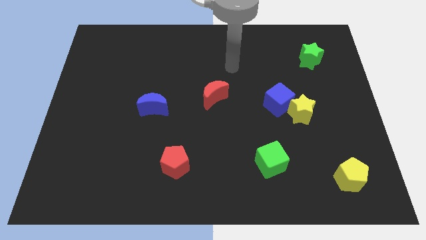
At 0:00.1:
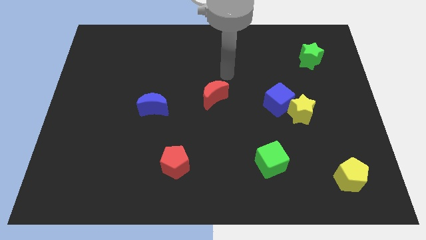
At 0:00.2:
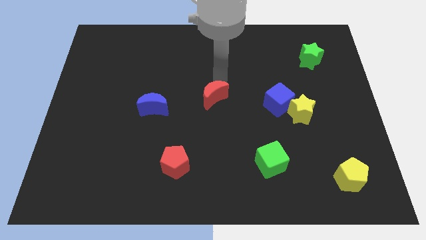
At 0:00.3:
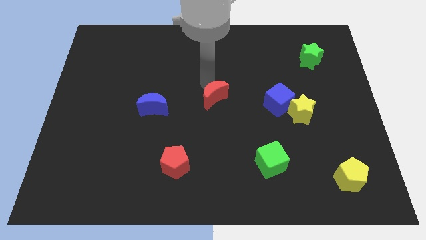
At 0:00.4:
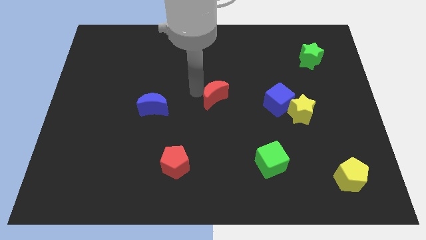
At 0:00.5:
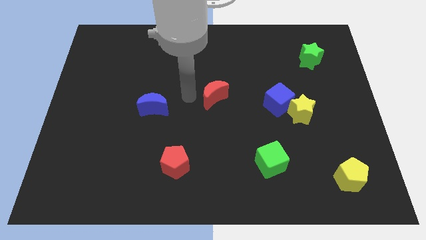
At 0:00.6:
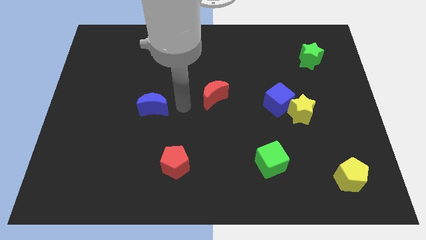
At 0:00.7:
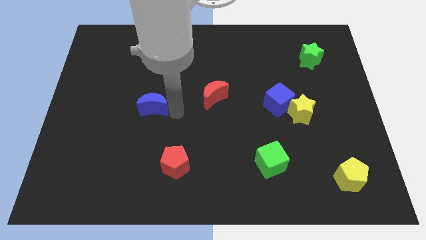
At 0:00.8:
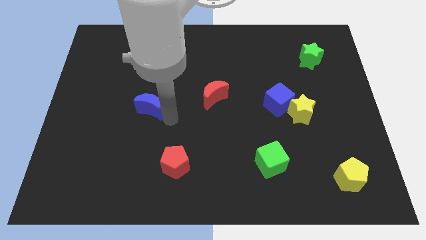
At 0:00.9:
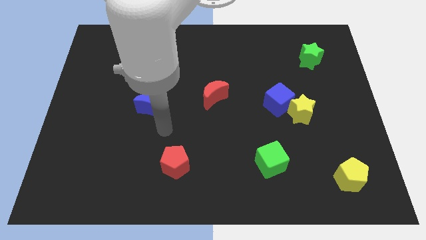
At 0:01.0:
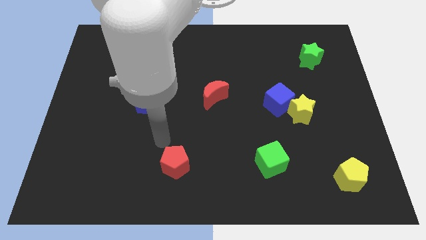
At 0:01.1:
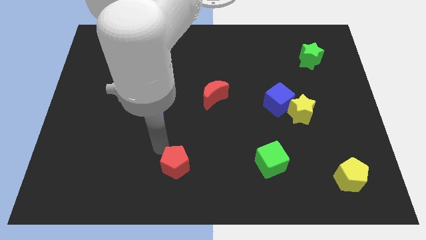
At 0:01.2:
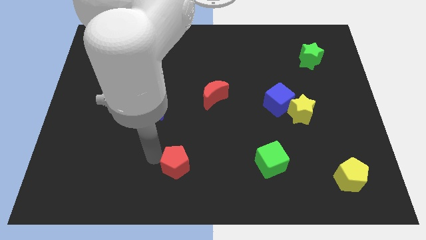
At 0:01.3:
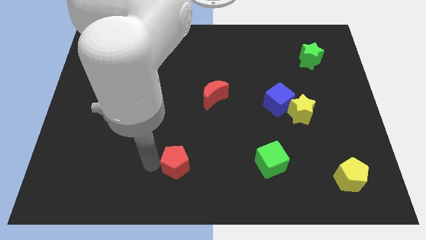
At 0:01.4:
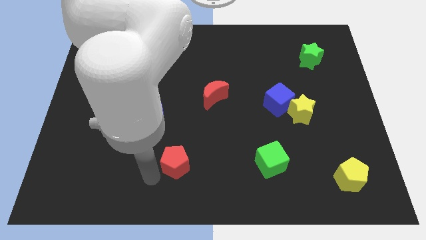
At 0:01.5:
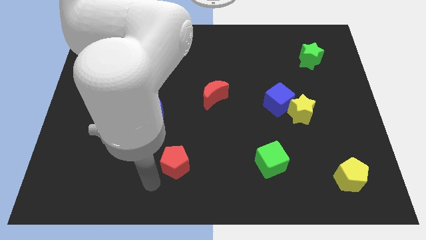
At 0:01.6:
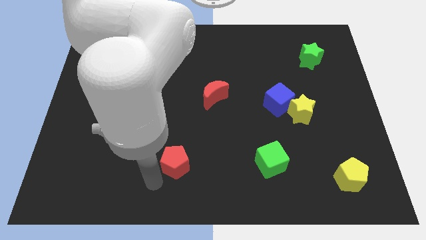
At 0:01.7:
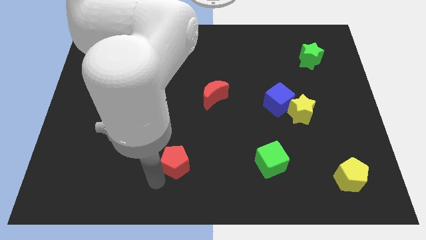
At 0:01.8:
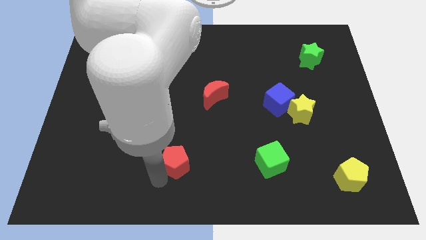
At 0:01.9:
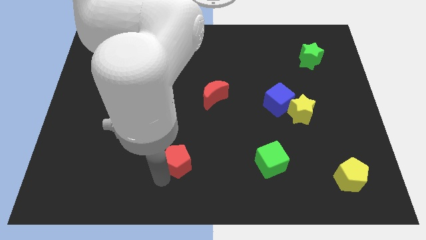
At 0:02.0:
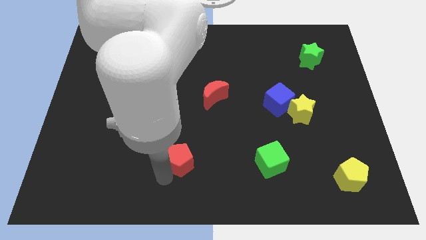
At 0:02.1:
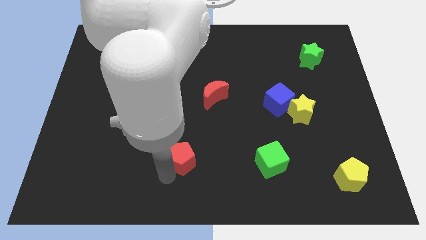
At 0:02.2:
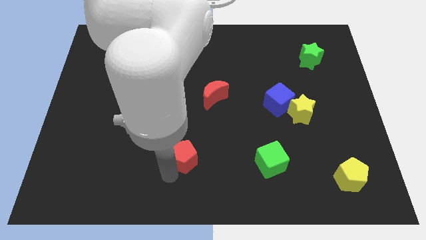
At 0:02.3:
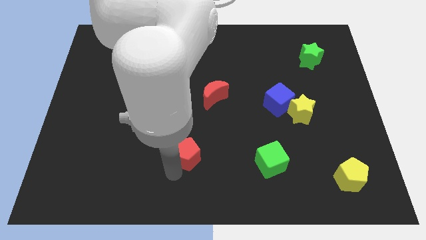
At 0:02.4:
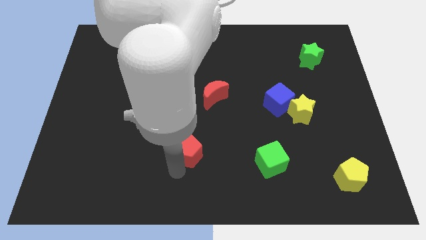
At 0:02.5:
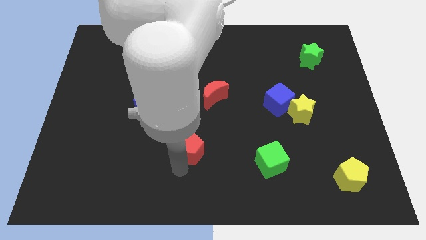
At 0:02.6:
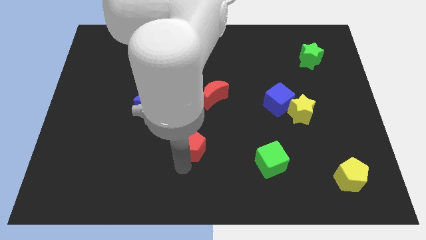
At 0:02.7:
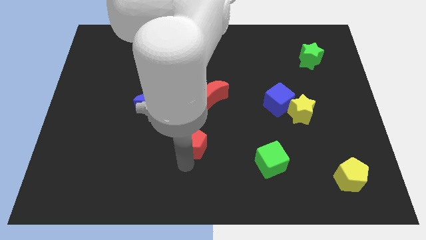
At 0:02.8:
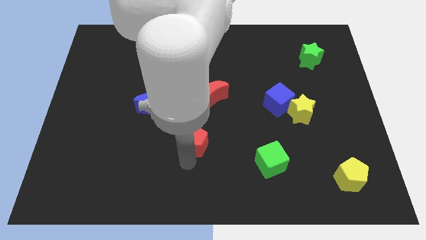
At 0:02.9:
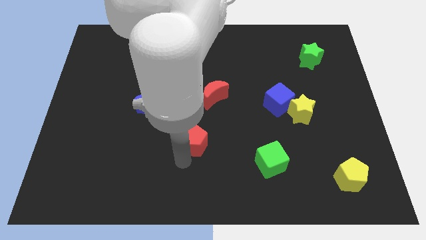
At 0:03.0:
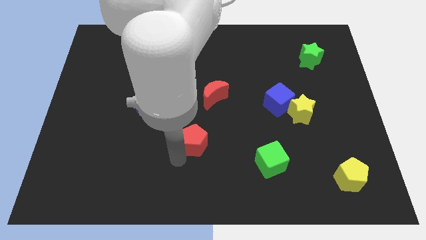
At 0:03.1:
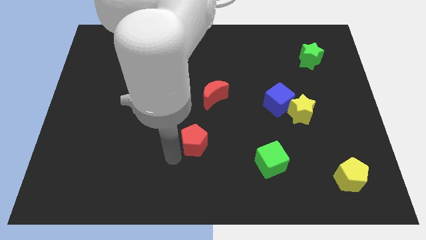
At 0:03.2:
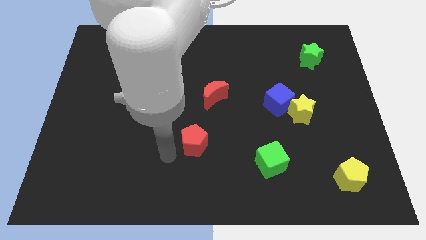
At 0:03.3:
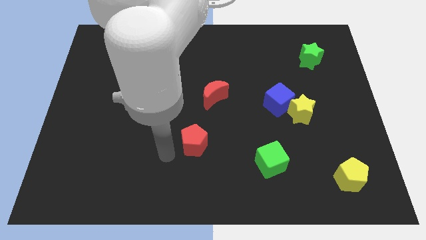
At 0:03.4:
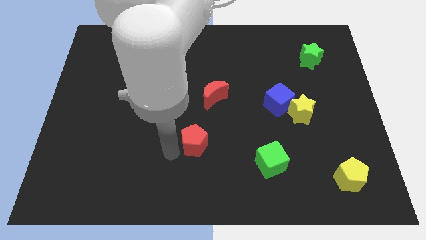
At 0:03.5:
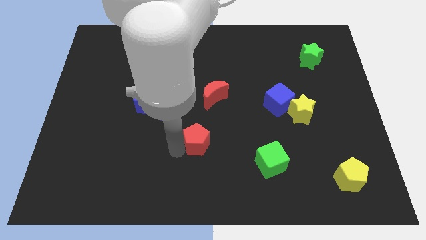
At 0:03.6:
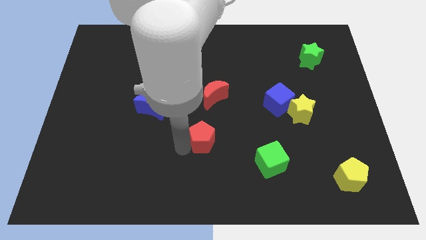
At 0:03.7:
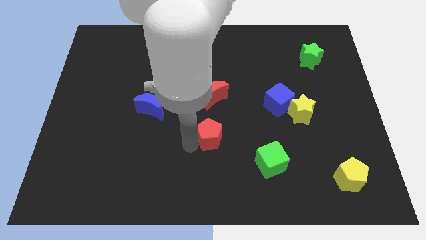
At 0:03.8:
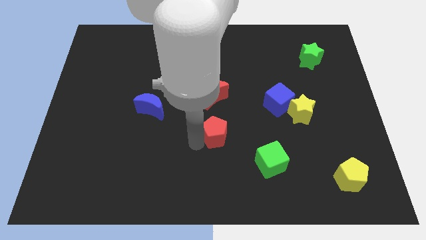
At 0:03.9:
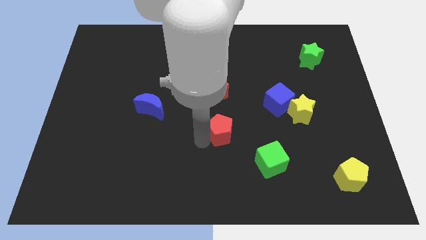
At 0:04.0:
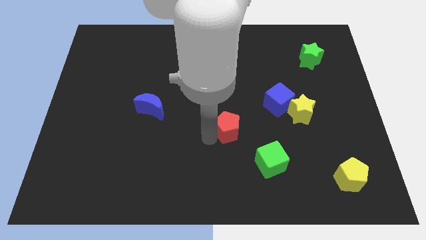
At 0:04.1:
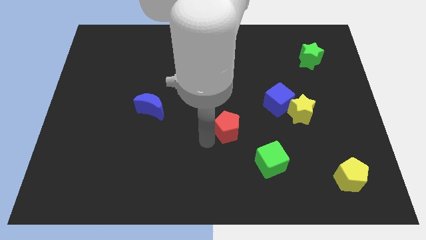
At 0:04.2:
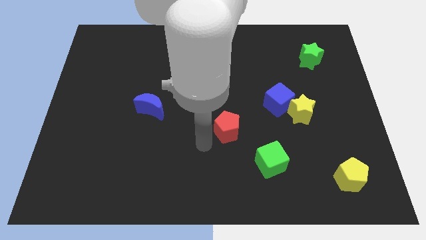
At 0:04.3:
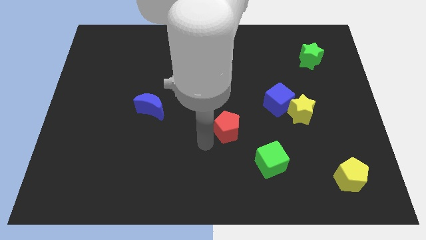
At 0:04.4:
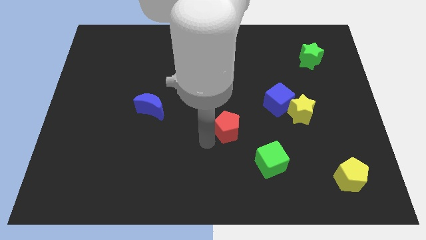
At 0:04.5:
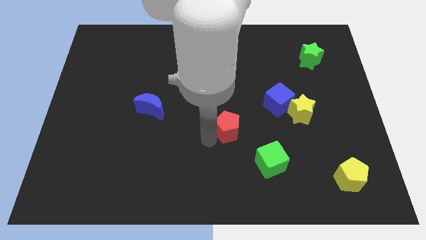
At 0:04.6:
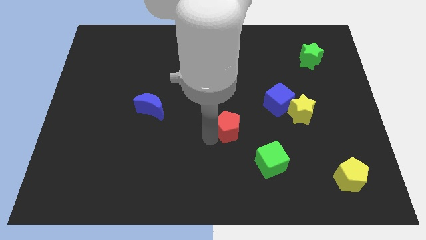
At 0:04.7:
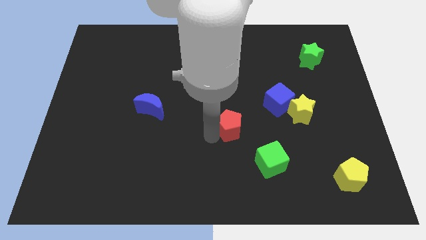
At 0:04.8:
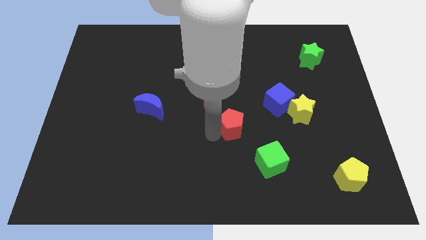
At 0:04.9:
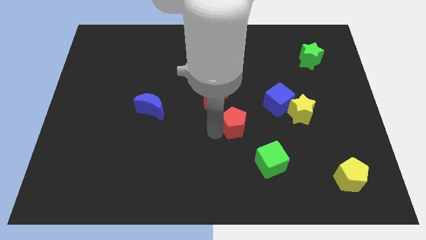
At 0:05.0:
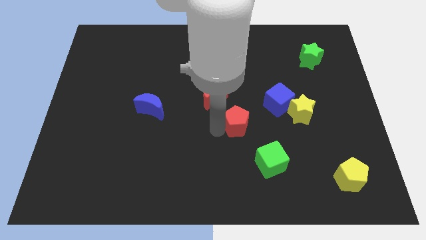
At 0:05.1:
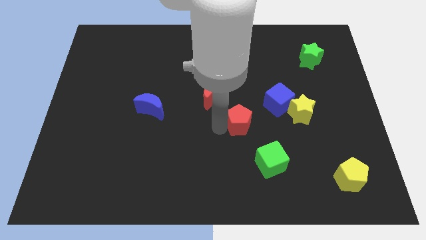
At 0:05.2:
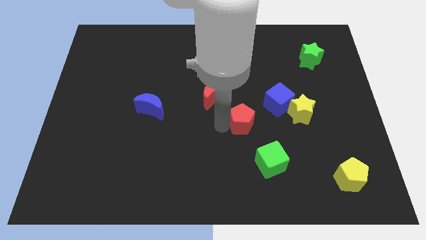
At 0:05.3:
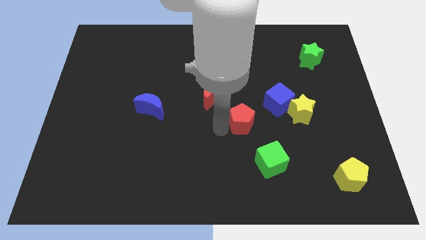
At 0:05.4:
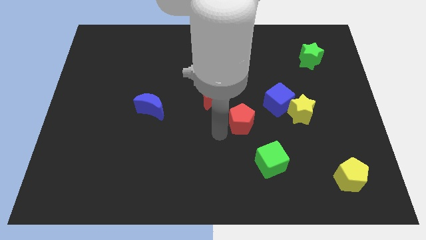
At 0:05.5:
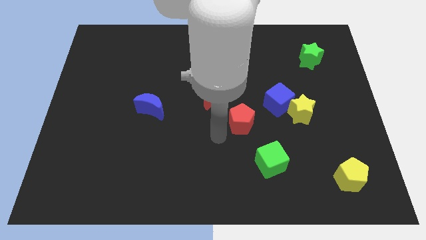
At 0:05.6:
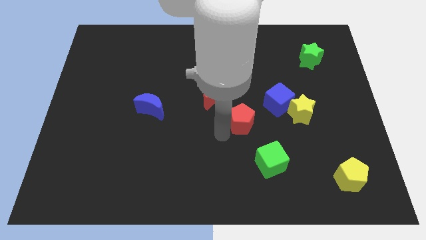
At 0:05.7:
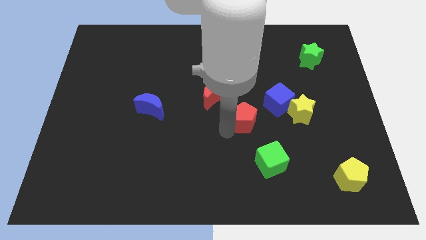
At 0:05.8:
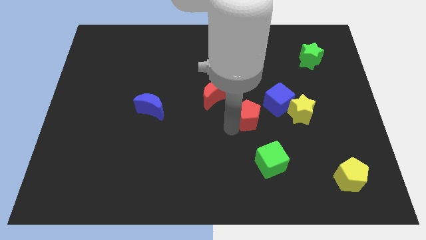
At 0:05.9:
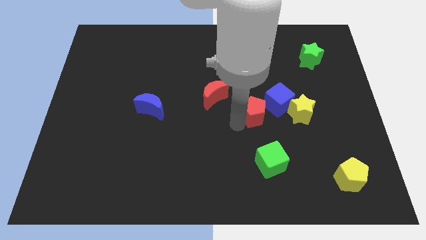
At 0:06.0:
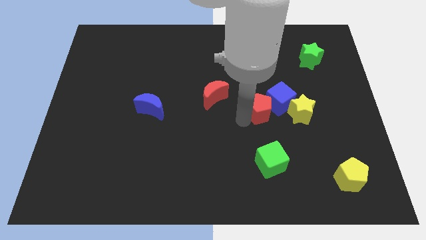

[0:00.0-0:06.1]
move the red pentagon towards the blue cube
